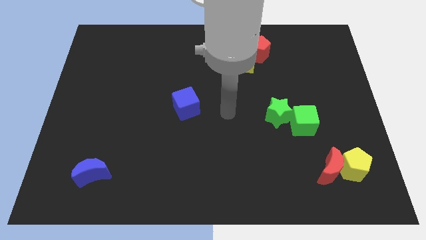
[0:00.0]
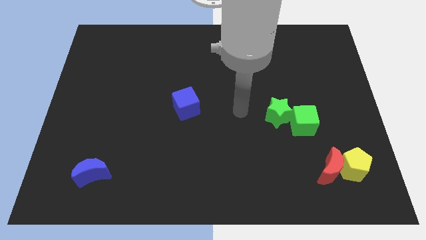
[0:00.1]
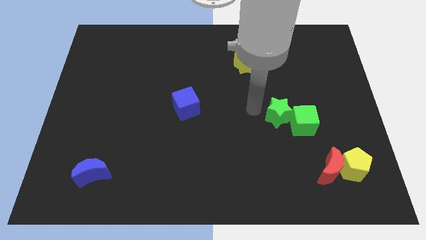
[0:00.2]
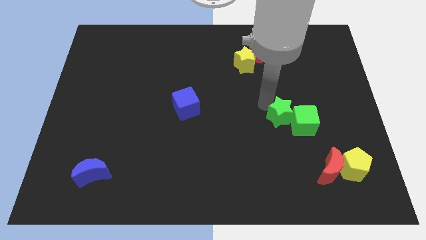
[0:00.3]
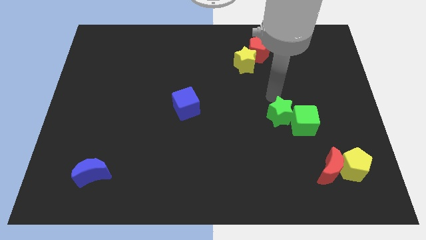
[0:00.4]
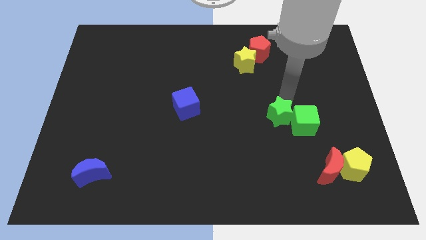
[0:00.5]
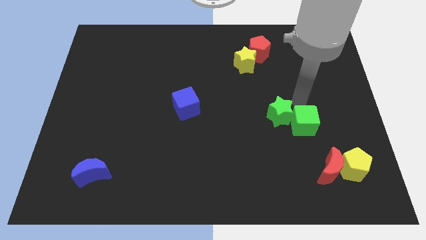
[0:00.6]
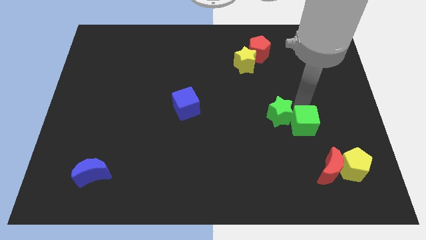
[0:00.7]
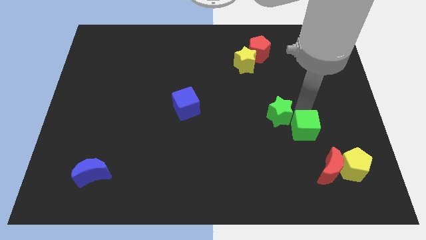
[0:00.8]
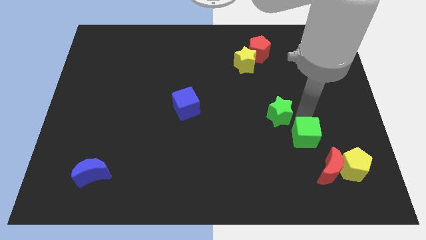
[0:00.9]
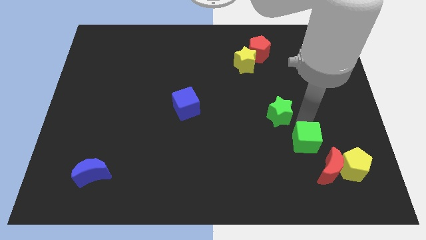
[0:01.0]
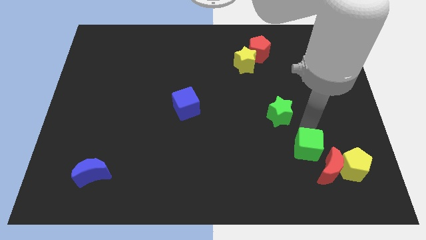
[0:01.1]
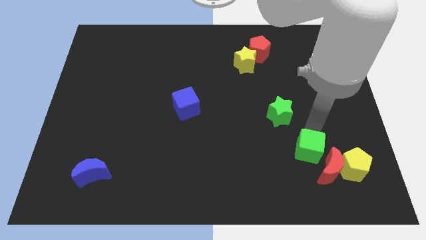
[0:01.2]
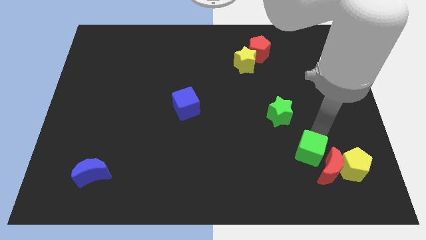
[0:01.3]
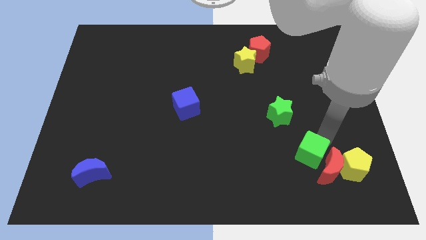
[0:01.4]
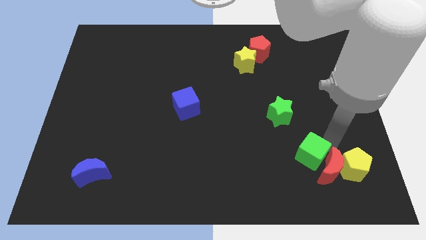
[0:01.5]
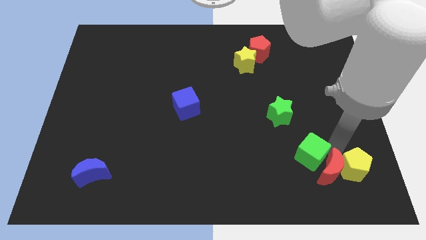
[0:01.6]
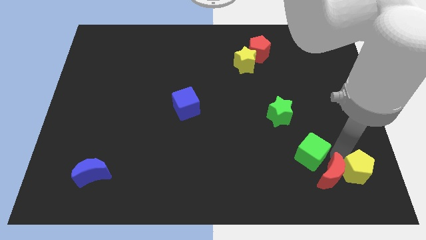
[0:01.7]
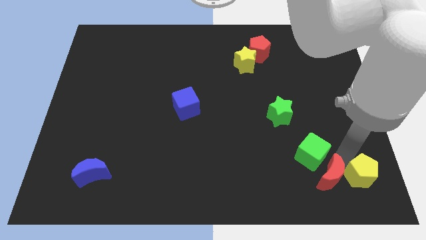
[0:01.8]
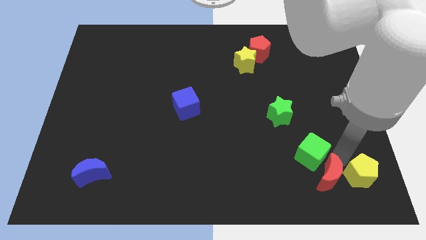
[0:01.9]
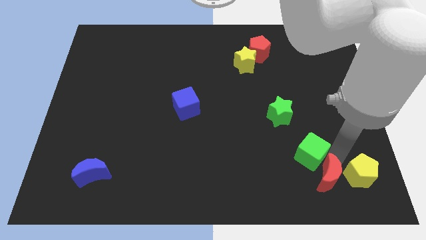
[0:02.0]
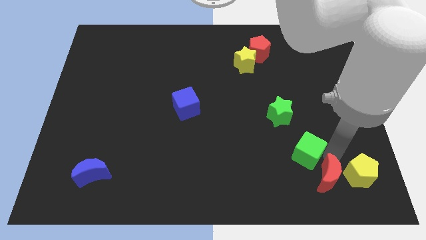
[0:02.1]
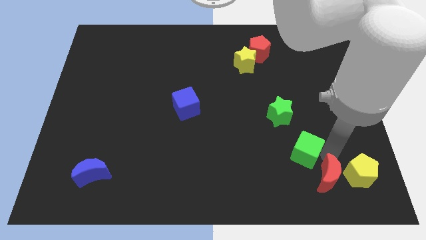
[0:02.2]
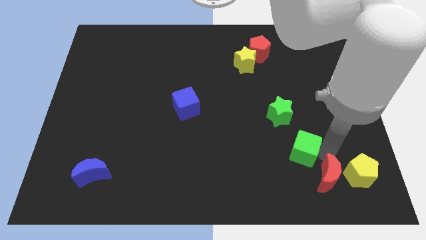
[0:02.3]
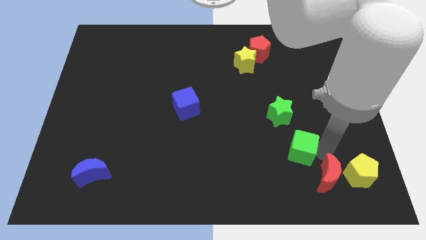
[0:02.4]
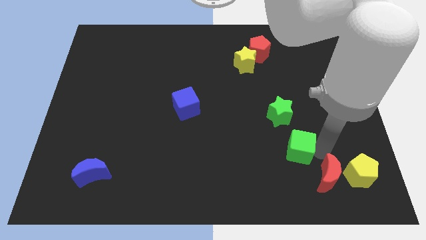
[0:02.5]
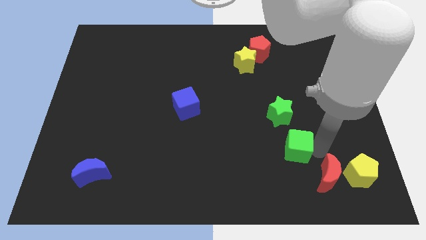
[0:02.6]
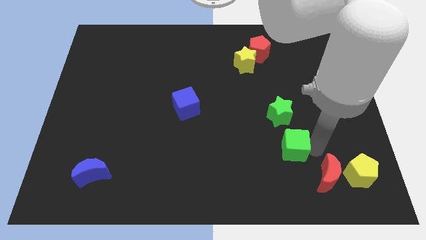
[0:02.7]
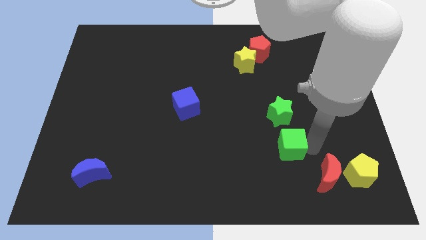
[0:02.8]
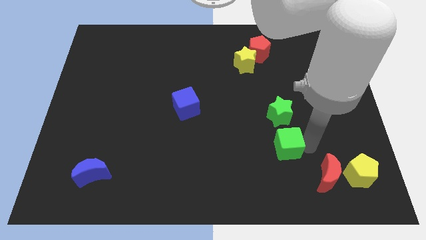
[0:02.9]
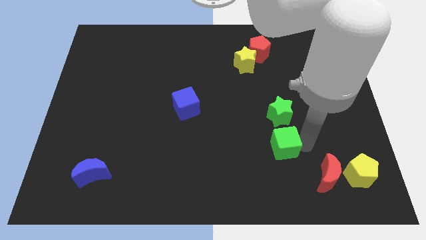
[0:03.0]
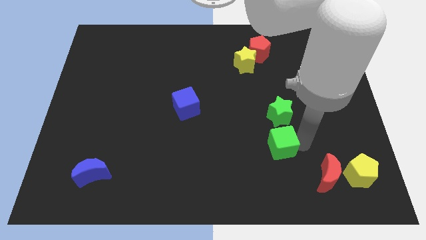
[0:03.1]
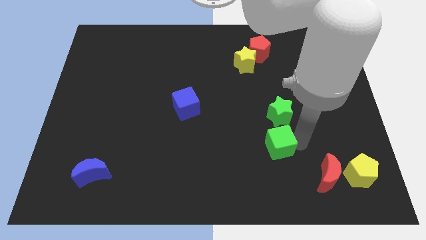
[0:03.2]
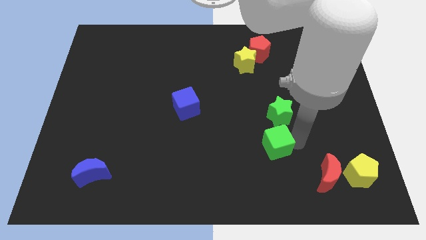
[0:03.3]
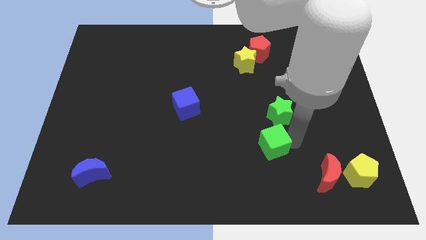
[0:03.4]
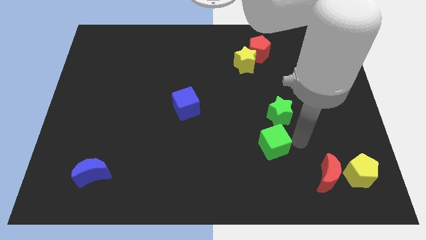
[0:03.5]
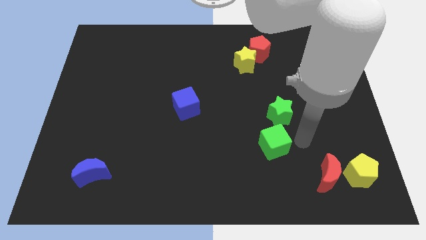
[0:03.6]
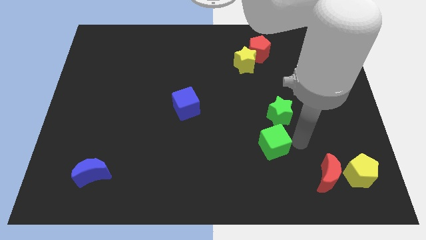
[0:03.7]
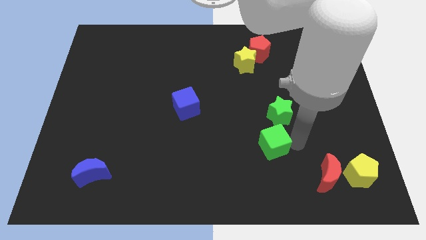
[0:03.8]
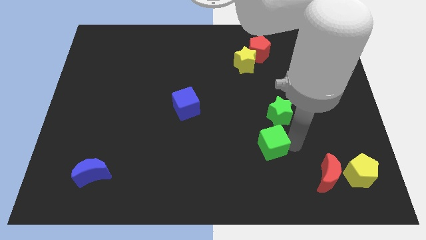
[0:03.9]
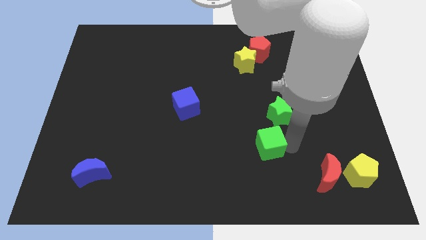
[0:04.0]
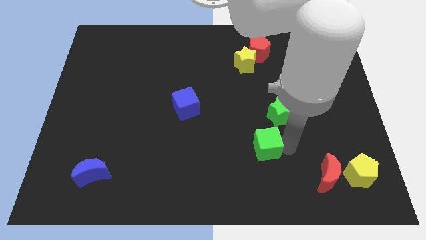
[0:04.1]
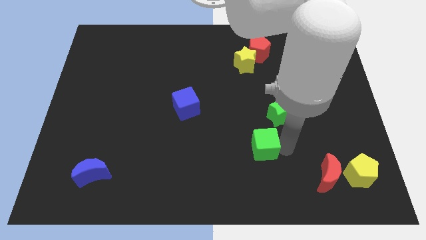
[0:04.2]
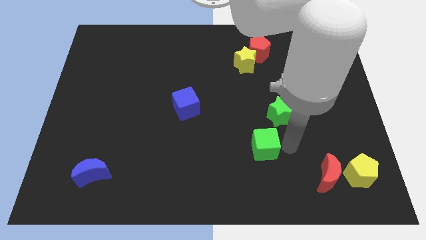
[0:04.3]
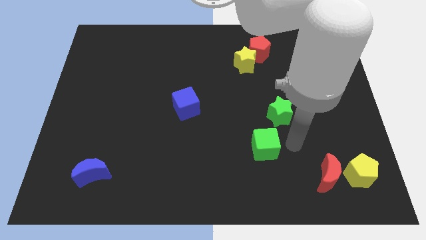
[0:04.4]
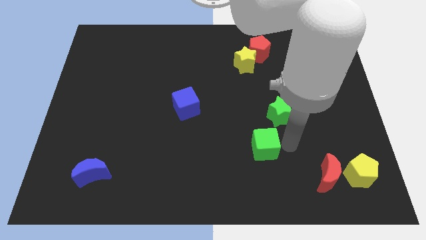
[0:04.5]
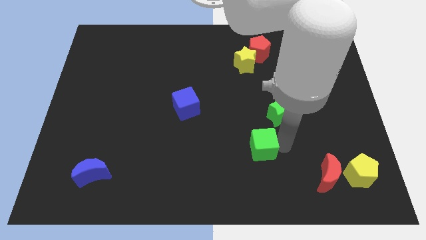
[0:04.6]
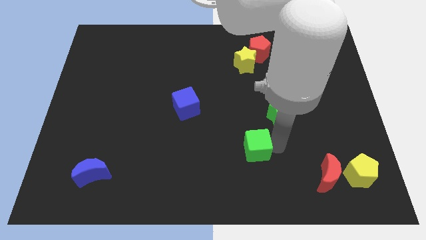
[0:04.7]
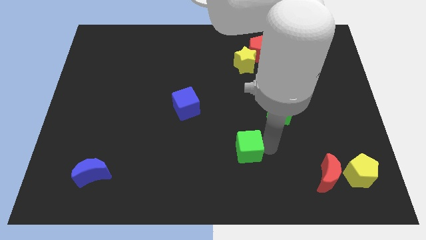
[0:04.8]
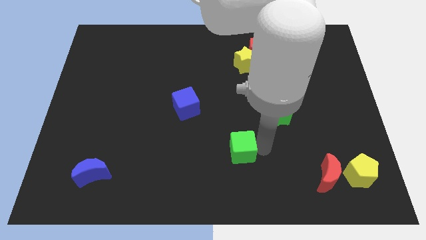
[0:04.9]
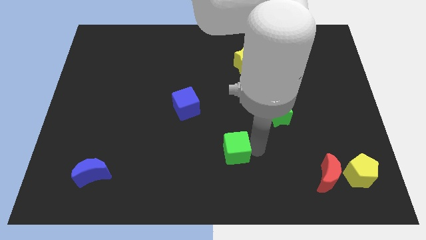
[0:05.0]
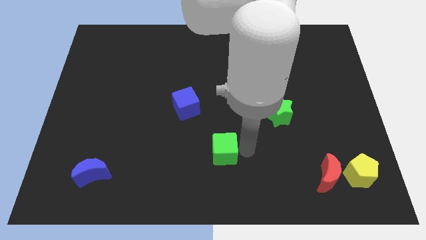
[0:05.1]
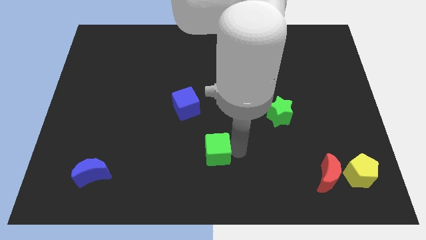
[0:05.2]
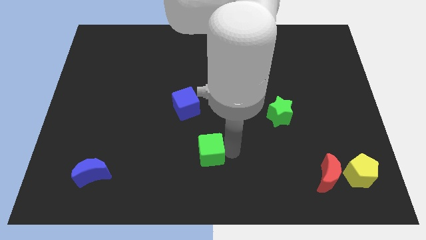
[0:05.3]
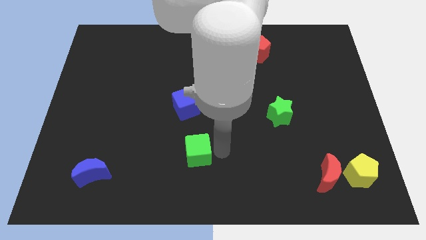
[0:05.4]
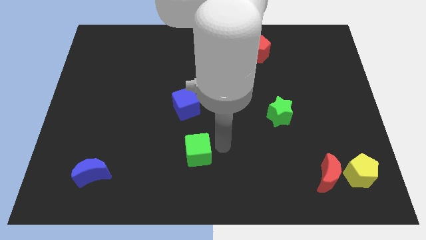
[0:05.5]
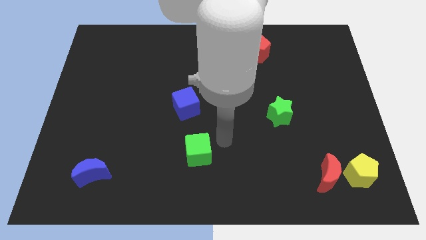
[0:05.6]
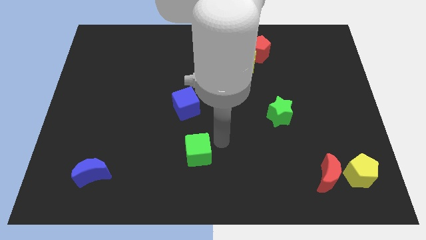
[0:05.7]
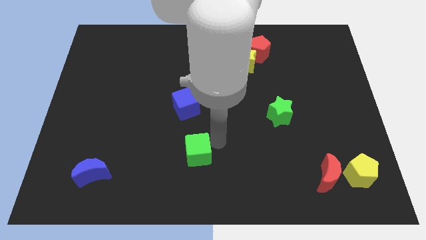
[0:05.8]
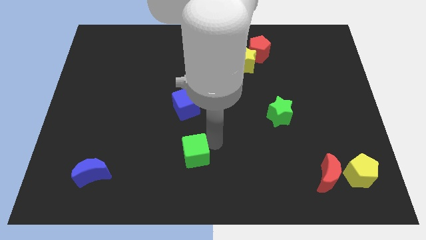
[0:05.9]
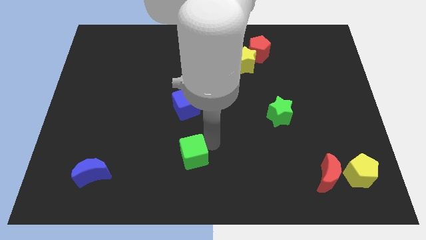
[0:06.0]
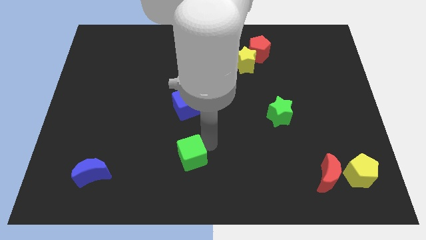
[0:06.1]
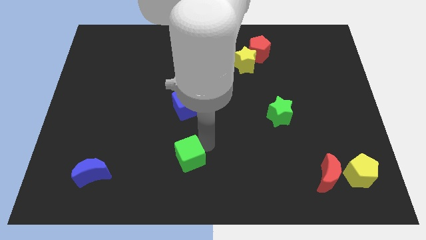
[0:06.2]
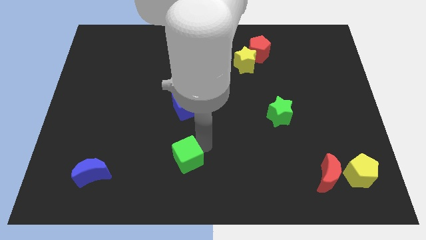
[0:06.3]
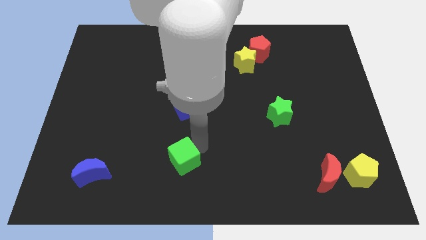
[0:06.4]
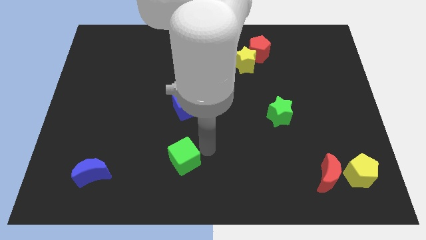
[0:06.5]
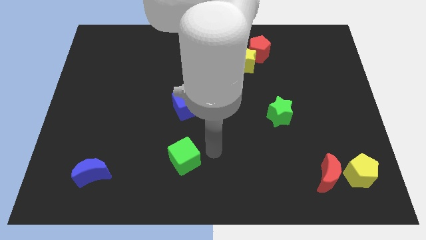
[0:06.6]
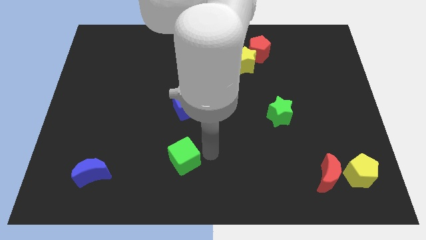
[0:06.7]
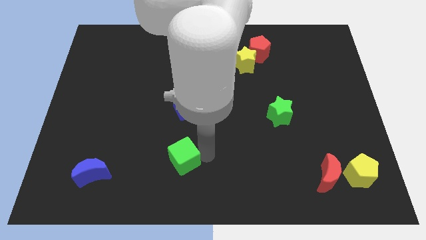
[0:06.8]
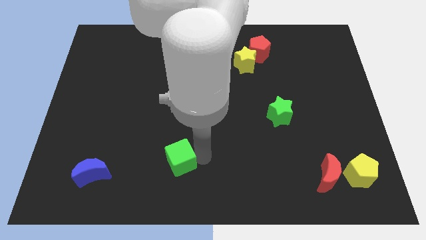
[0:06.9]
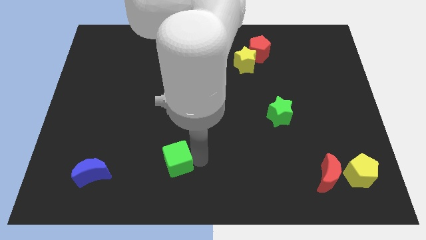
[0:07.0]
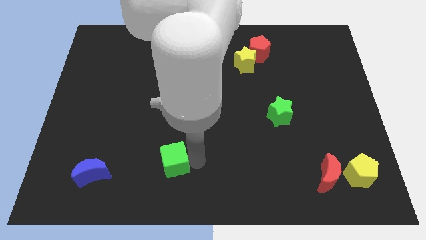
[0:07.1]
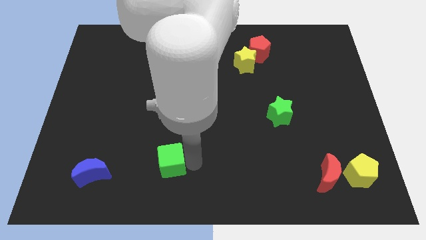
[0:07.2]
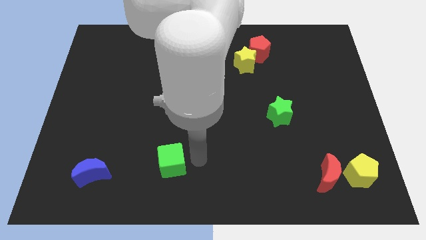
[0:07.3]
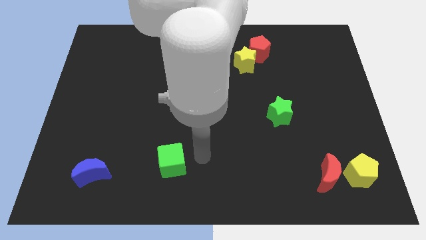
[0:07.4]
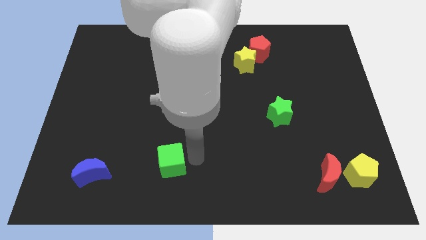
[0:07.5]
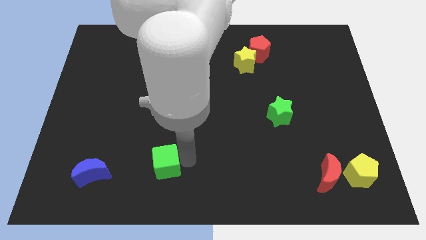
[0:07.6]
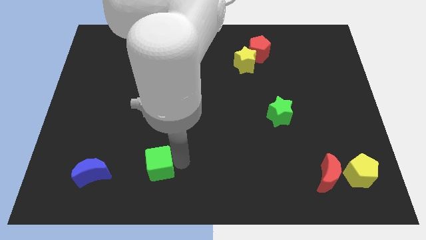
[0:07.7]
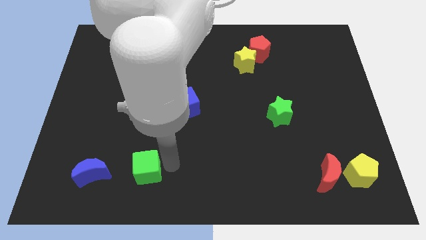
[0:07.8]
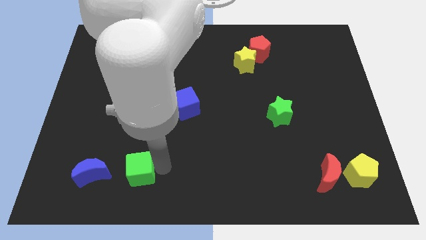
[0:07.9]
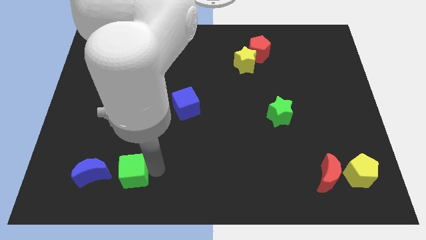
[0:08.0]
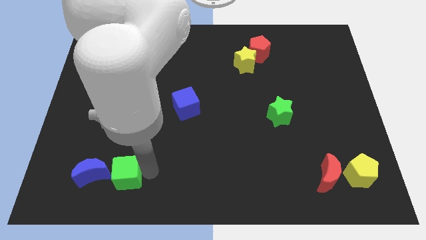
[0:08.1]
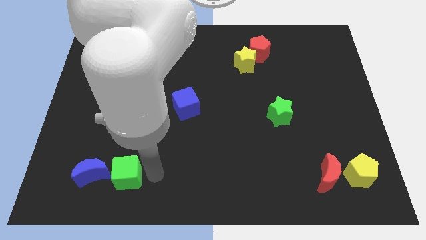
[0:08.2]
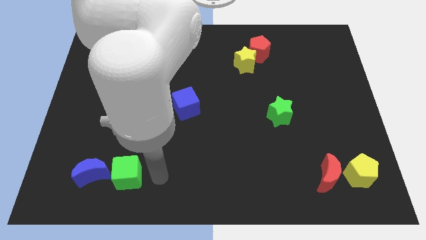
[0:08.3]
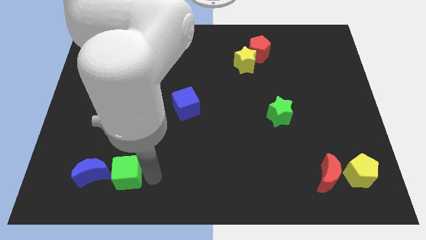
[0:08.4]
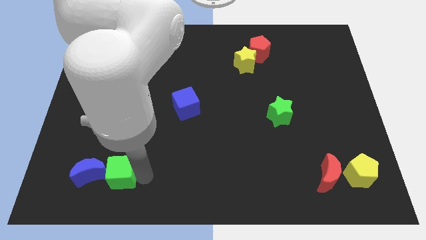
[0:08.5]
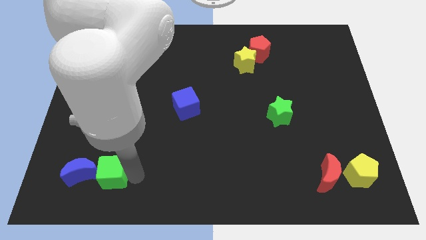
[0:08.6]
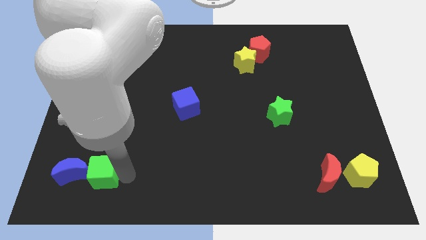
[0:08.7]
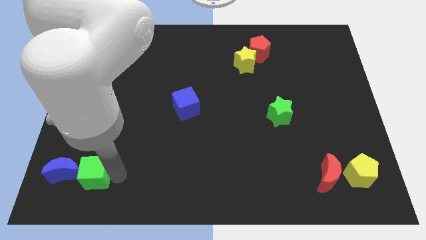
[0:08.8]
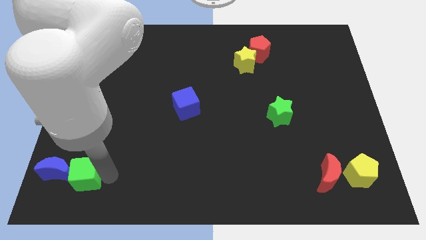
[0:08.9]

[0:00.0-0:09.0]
push the green cube towards the blue moon
